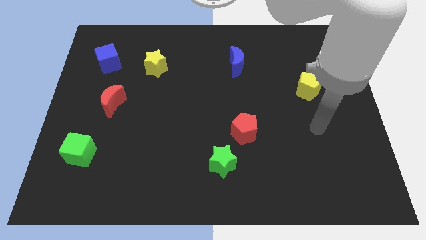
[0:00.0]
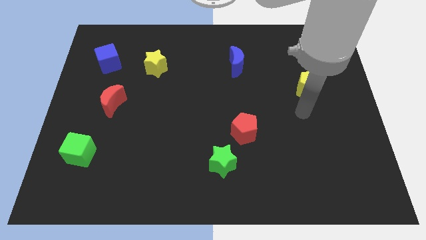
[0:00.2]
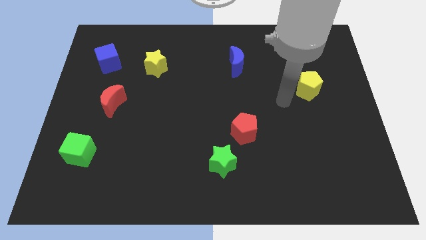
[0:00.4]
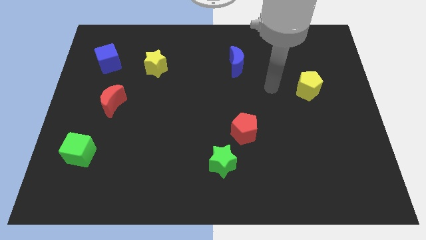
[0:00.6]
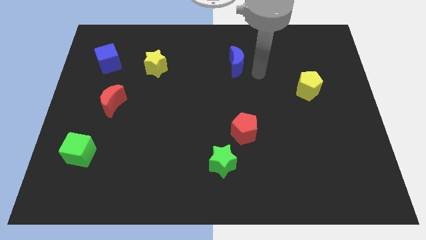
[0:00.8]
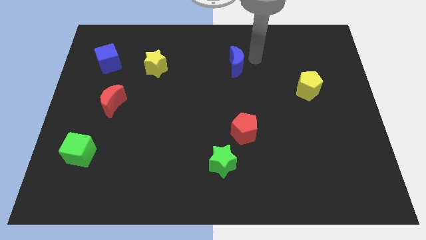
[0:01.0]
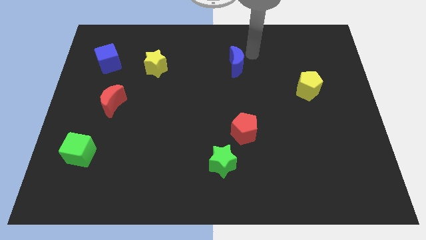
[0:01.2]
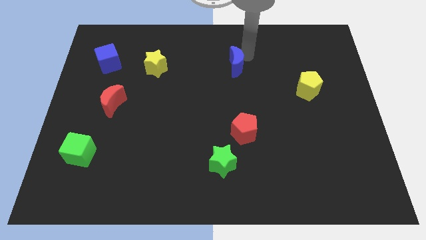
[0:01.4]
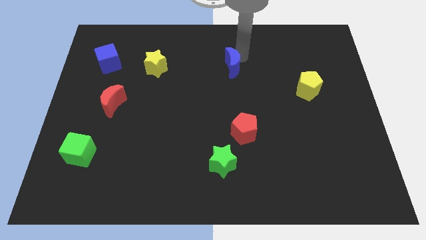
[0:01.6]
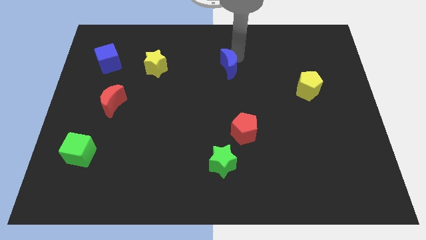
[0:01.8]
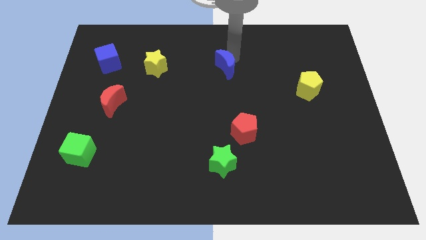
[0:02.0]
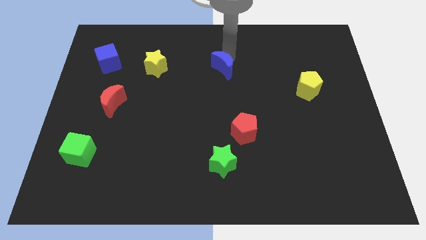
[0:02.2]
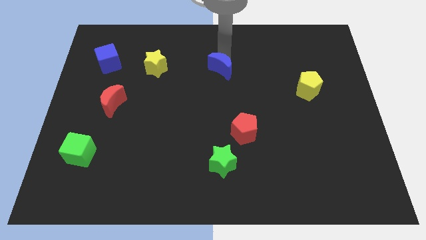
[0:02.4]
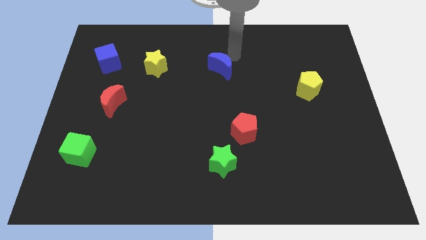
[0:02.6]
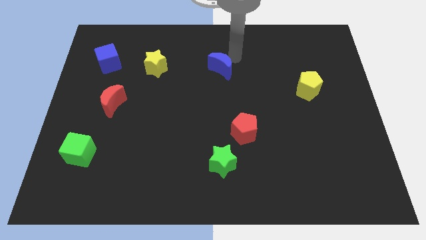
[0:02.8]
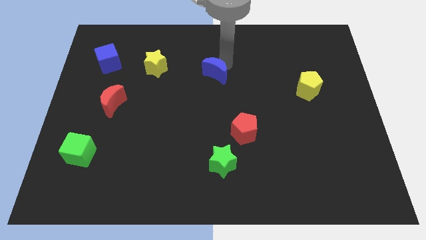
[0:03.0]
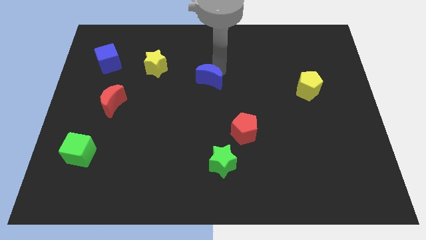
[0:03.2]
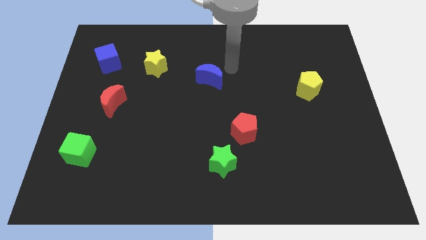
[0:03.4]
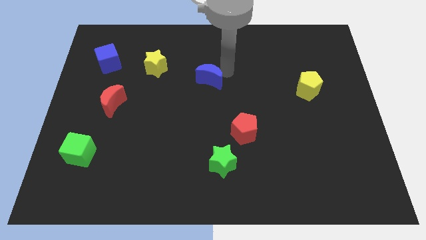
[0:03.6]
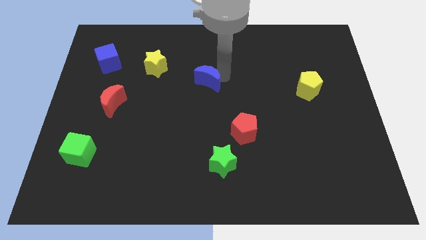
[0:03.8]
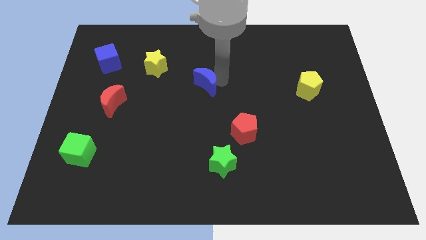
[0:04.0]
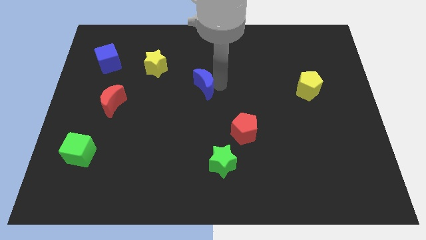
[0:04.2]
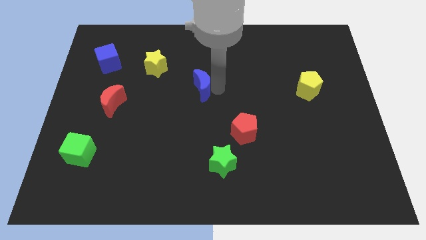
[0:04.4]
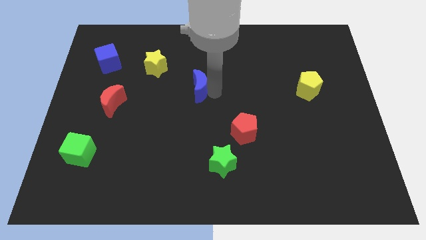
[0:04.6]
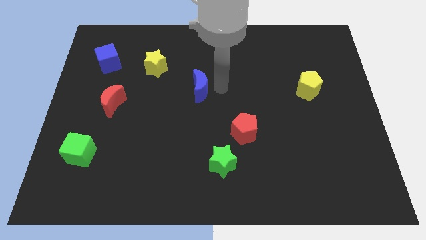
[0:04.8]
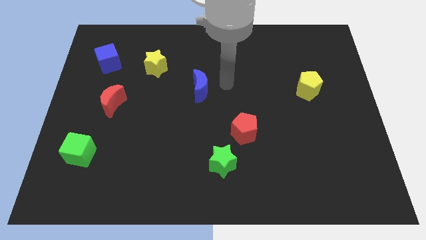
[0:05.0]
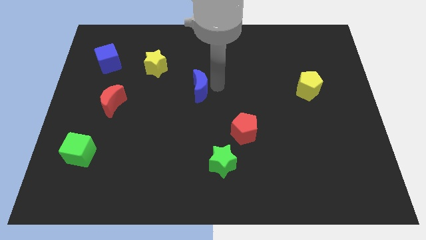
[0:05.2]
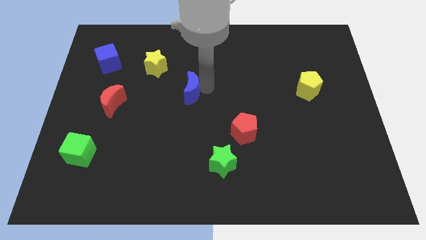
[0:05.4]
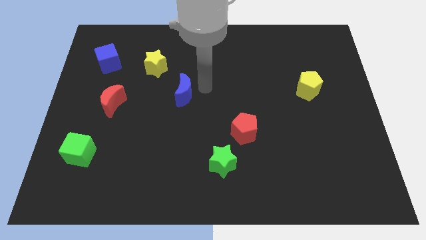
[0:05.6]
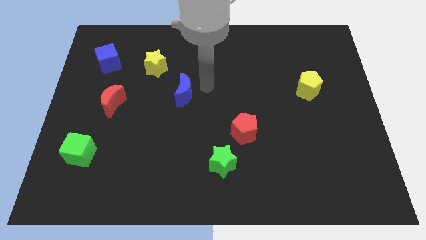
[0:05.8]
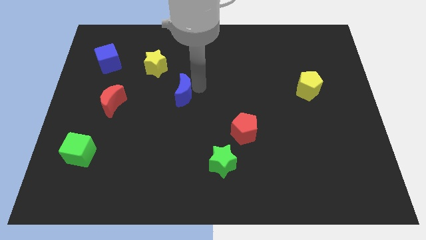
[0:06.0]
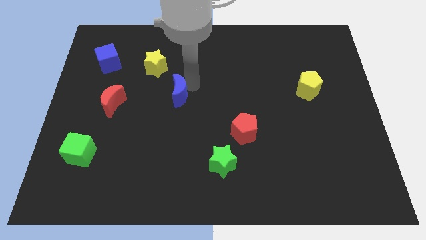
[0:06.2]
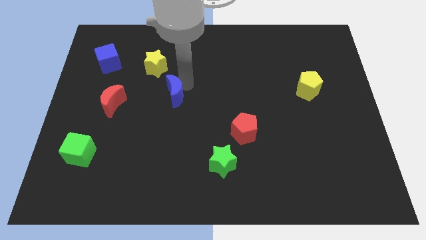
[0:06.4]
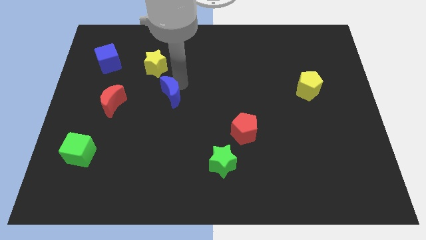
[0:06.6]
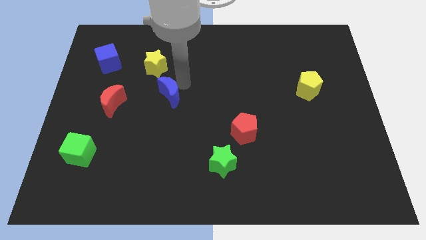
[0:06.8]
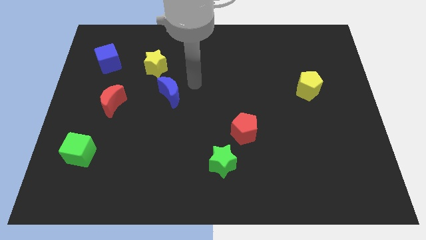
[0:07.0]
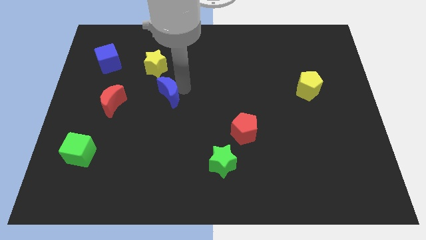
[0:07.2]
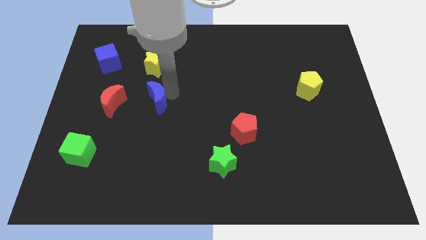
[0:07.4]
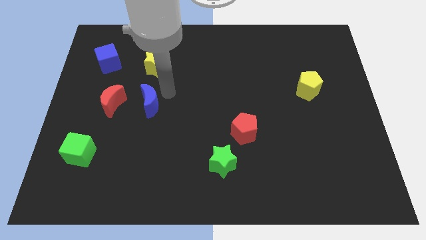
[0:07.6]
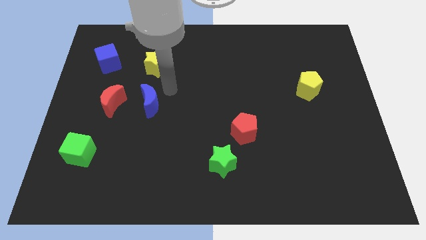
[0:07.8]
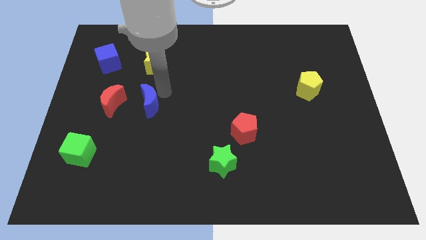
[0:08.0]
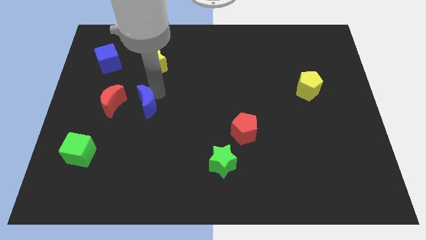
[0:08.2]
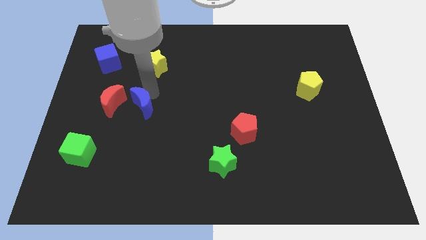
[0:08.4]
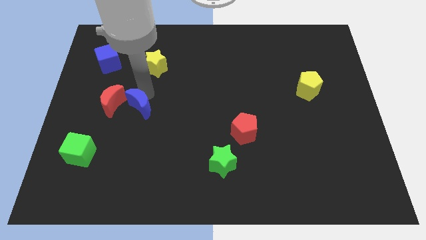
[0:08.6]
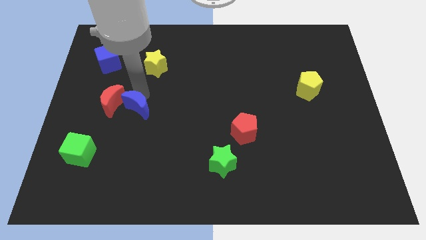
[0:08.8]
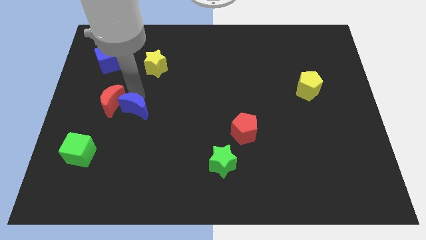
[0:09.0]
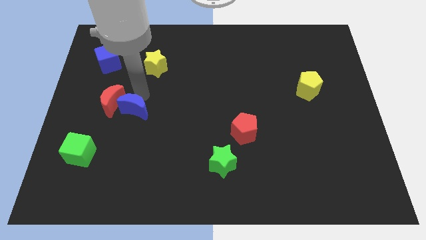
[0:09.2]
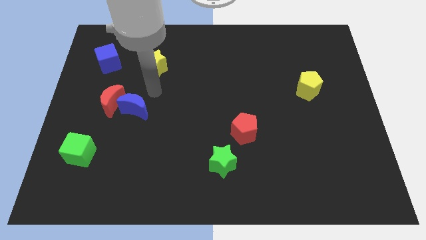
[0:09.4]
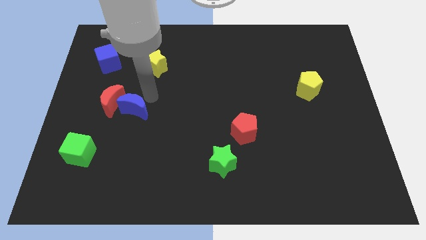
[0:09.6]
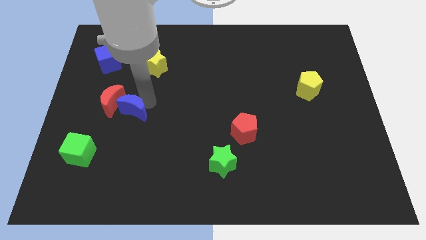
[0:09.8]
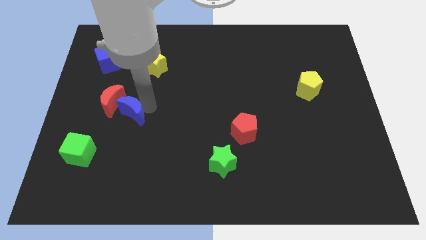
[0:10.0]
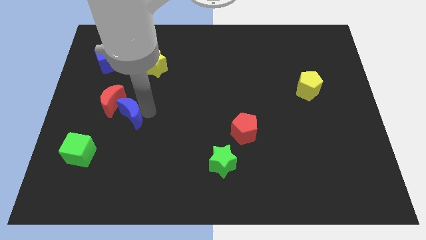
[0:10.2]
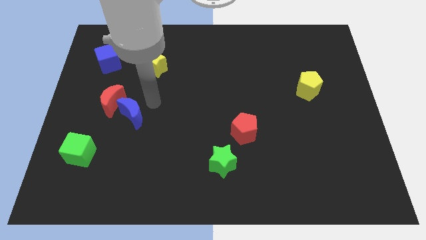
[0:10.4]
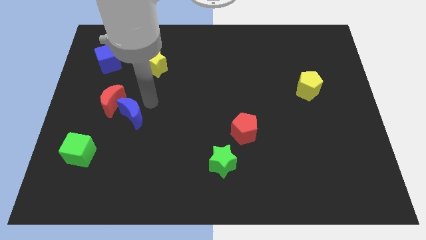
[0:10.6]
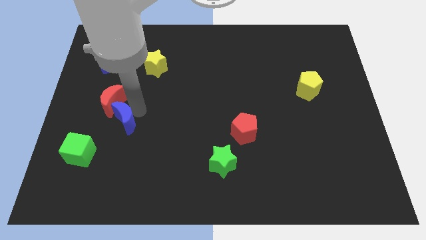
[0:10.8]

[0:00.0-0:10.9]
move the blue moon to the top right side of the green cube

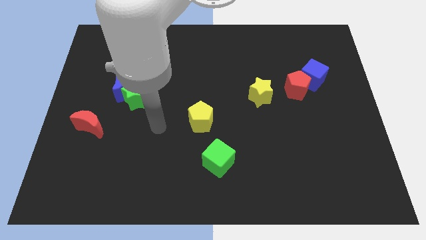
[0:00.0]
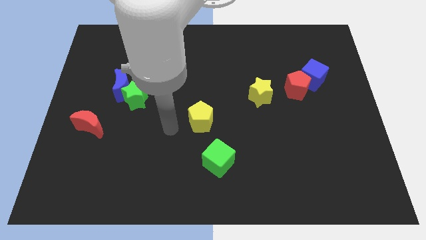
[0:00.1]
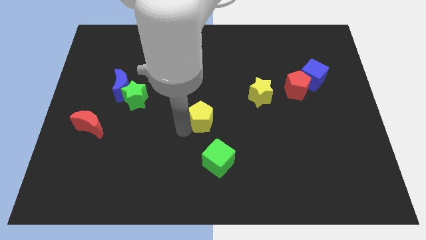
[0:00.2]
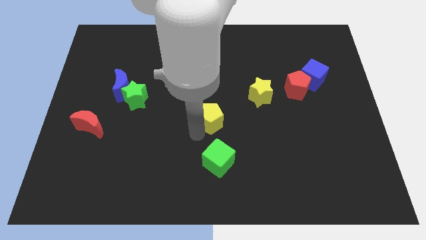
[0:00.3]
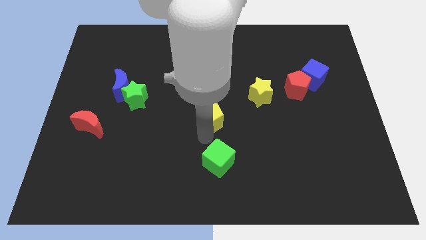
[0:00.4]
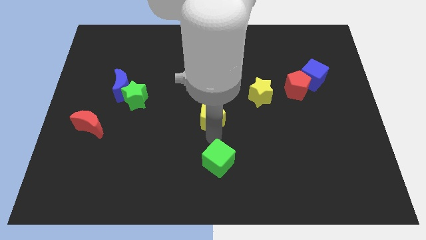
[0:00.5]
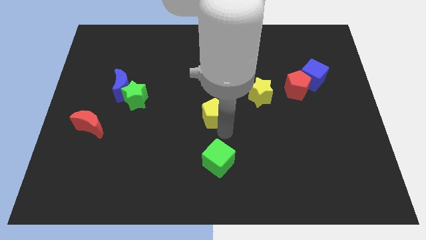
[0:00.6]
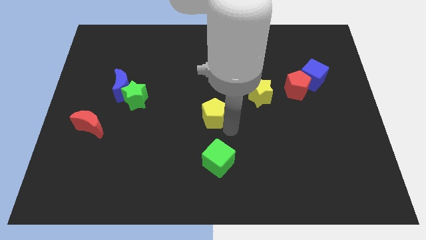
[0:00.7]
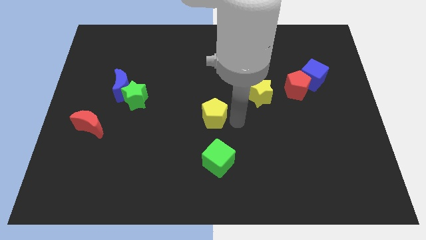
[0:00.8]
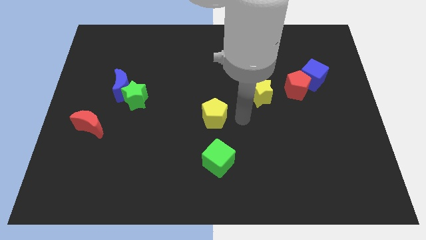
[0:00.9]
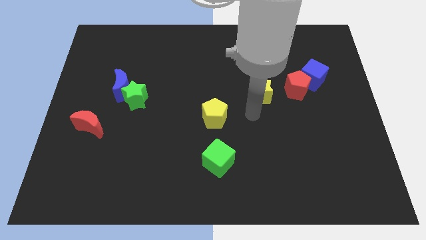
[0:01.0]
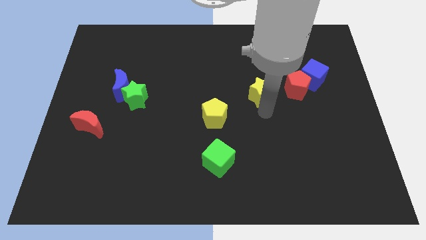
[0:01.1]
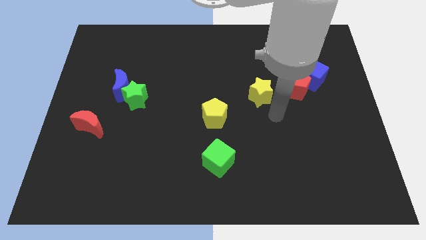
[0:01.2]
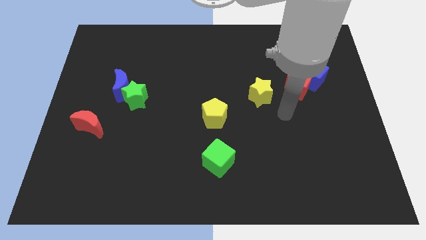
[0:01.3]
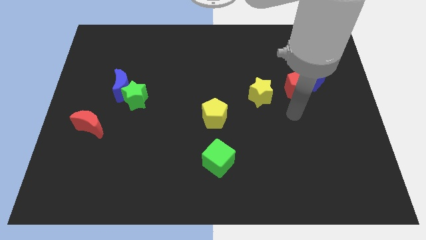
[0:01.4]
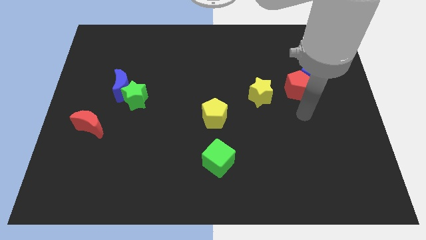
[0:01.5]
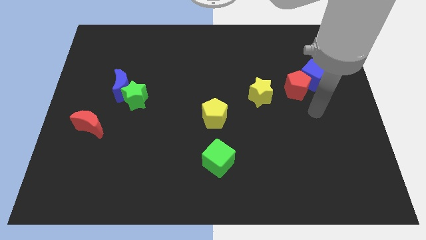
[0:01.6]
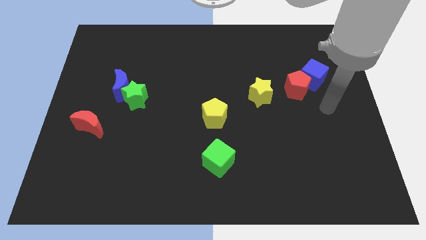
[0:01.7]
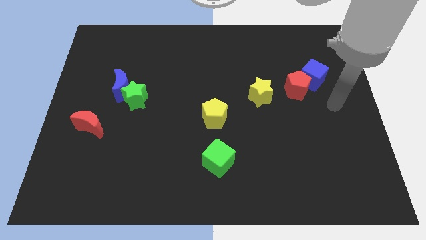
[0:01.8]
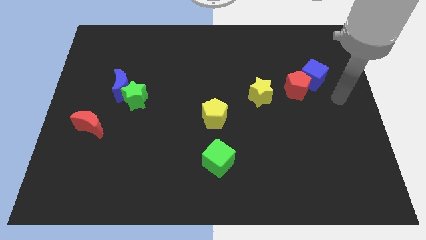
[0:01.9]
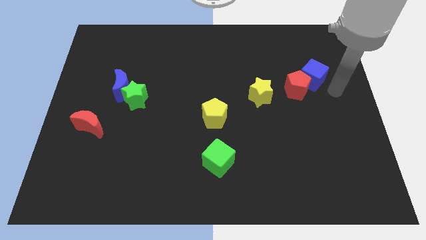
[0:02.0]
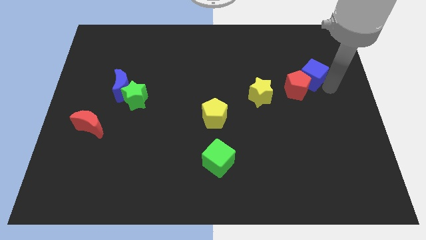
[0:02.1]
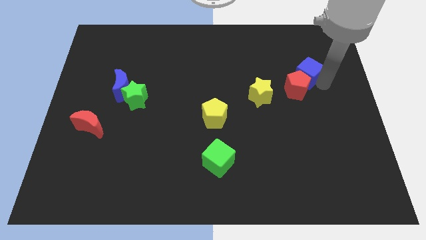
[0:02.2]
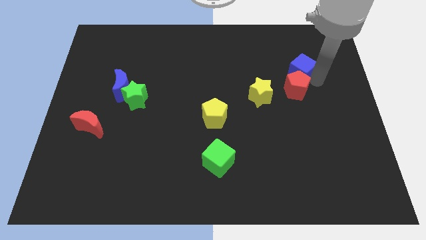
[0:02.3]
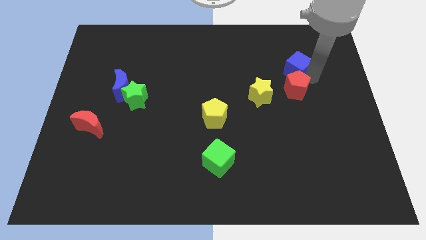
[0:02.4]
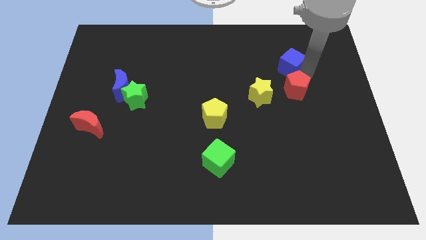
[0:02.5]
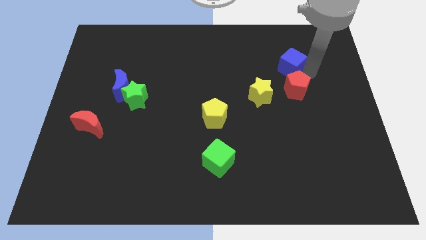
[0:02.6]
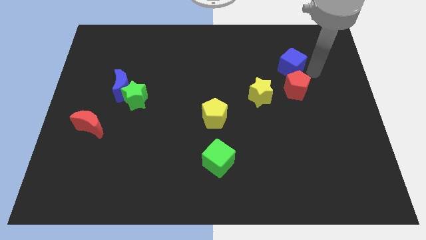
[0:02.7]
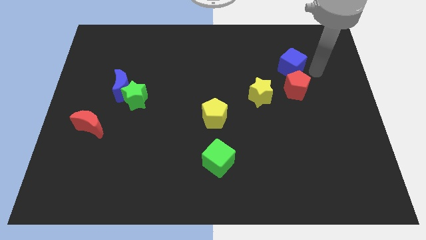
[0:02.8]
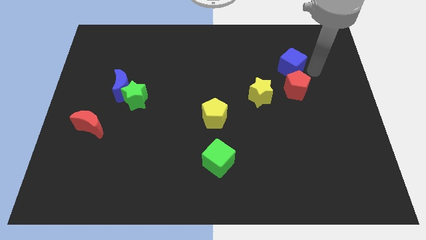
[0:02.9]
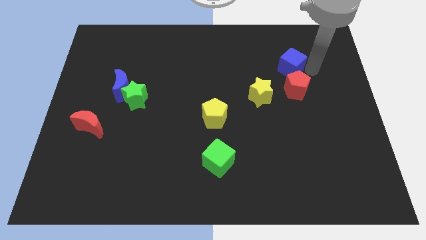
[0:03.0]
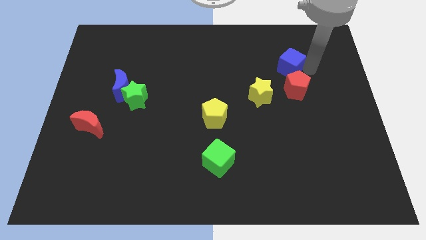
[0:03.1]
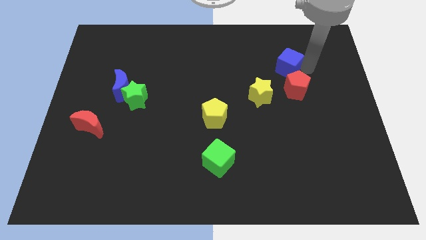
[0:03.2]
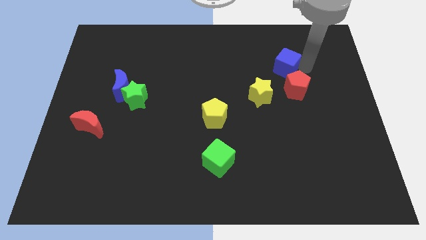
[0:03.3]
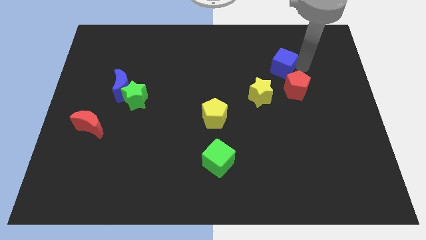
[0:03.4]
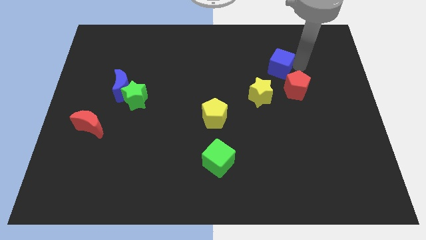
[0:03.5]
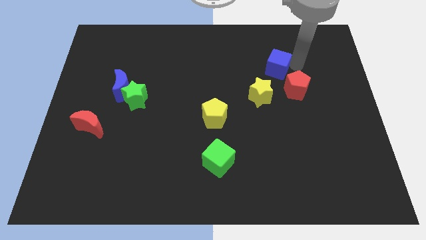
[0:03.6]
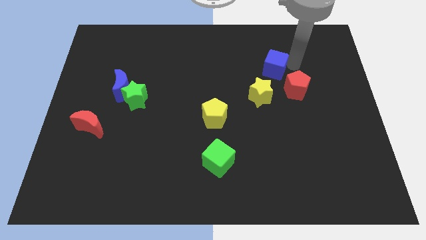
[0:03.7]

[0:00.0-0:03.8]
push the blue cube to the top of the yellow star
